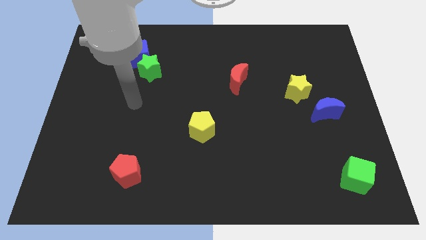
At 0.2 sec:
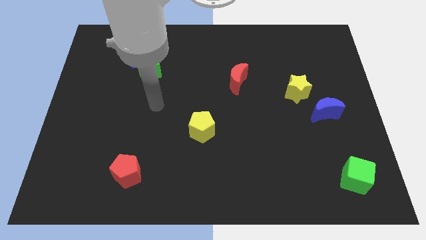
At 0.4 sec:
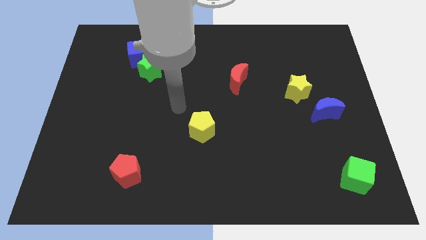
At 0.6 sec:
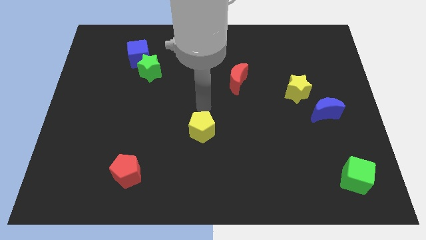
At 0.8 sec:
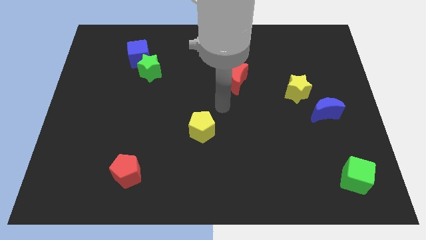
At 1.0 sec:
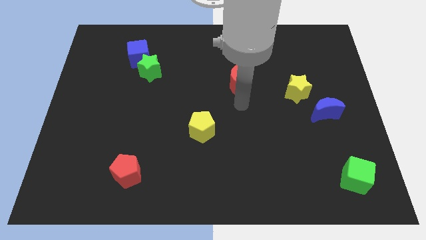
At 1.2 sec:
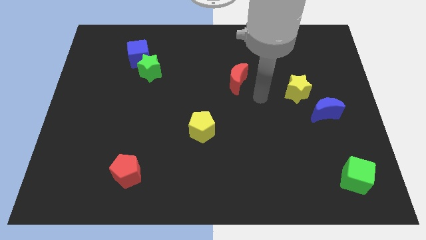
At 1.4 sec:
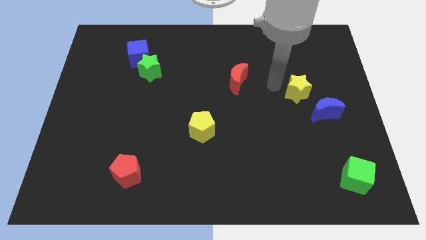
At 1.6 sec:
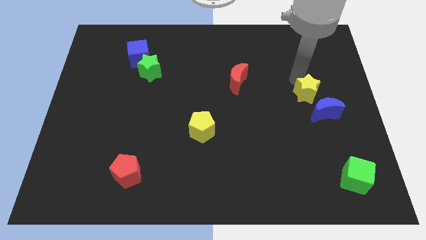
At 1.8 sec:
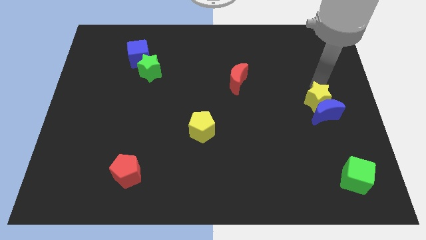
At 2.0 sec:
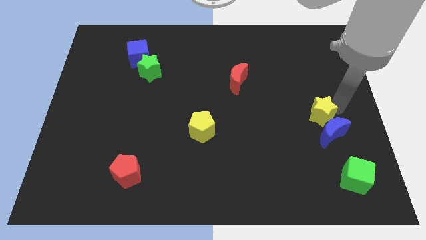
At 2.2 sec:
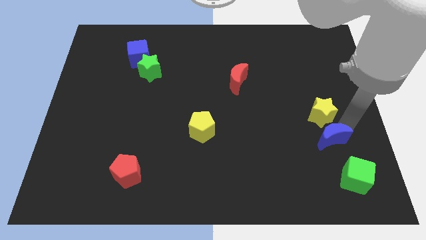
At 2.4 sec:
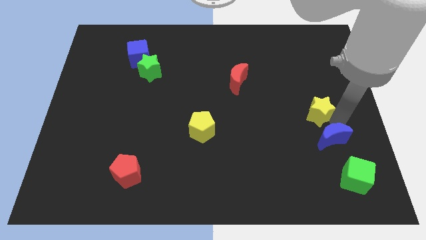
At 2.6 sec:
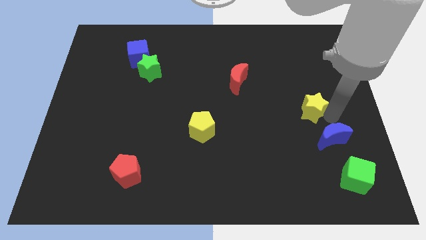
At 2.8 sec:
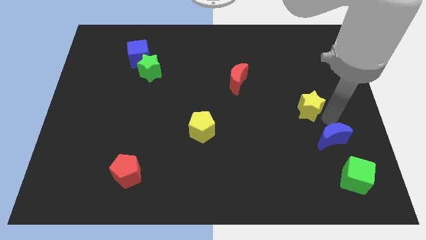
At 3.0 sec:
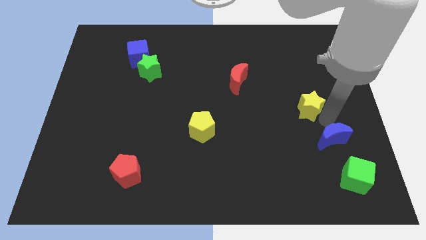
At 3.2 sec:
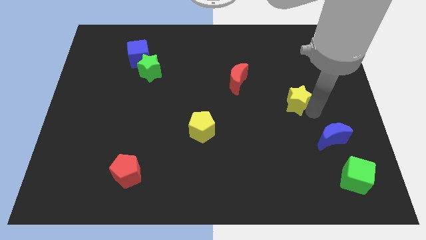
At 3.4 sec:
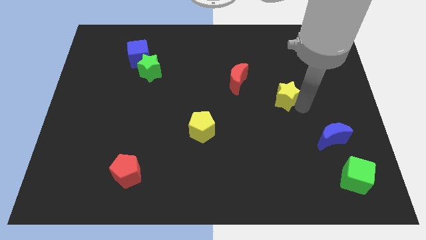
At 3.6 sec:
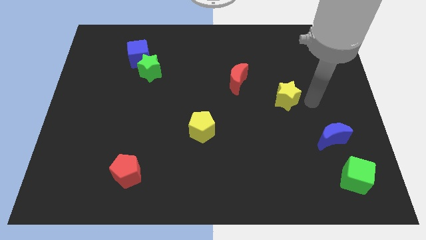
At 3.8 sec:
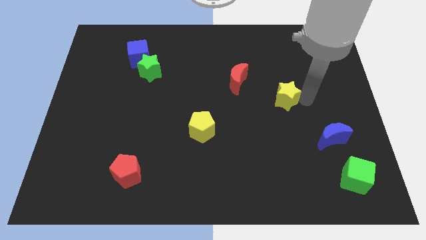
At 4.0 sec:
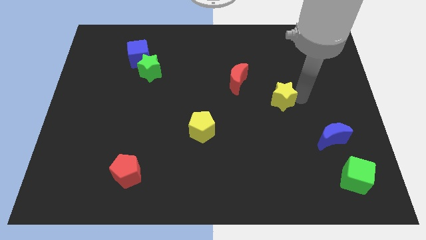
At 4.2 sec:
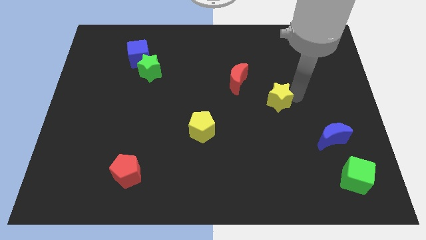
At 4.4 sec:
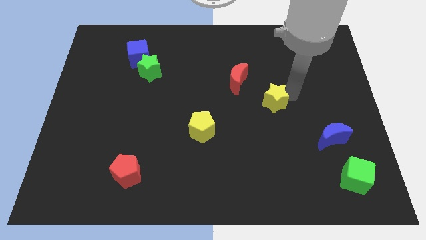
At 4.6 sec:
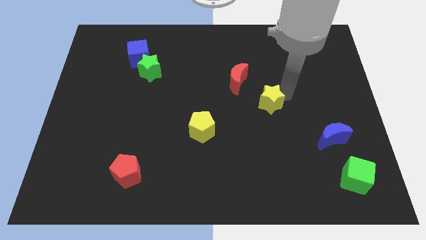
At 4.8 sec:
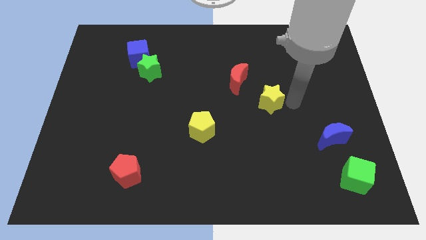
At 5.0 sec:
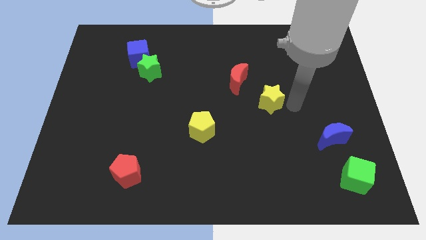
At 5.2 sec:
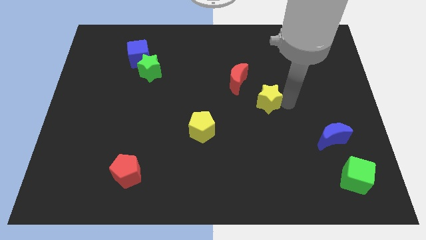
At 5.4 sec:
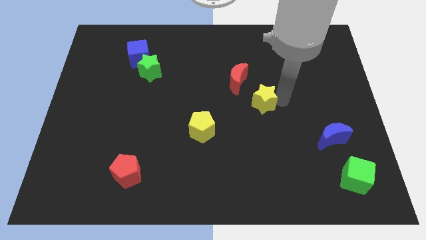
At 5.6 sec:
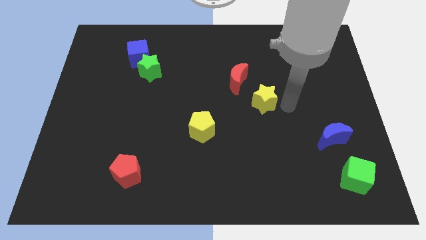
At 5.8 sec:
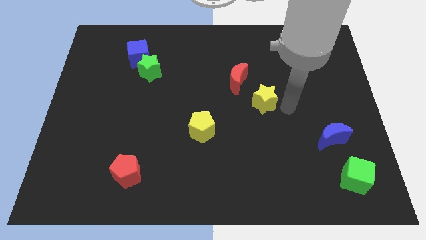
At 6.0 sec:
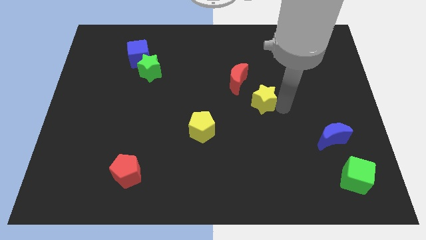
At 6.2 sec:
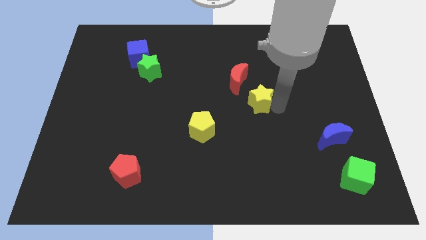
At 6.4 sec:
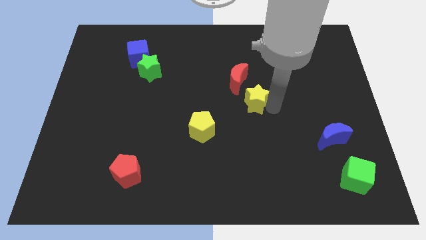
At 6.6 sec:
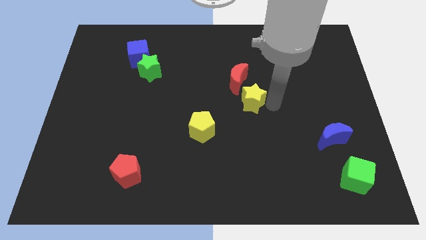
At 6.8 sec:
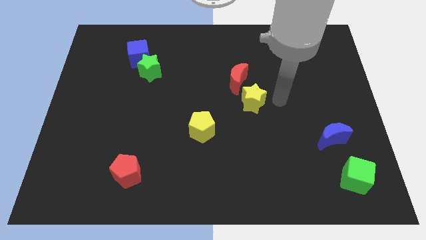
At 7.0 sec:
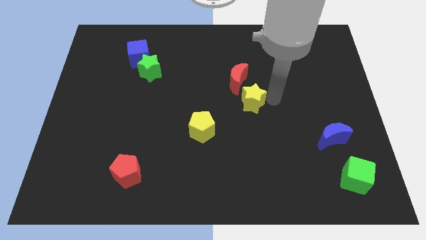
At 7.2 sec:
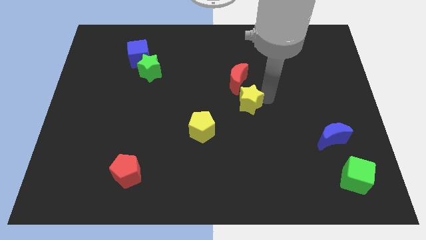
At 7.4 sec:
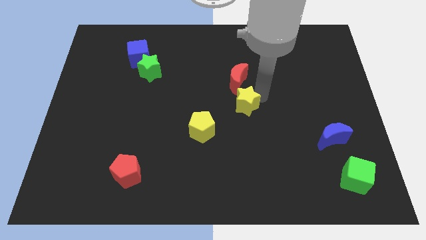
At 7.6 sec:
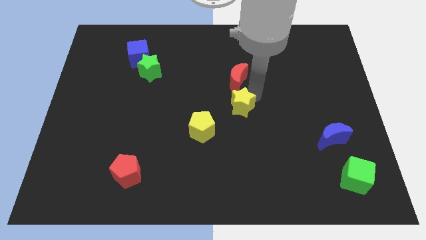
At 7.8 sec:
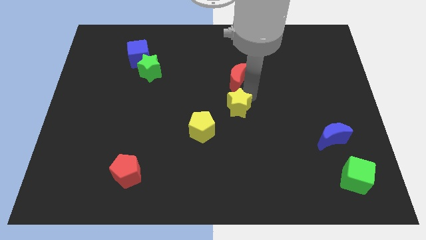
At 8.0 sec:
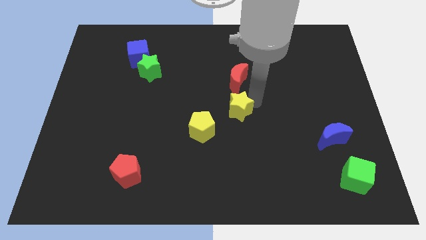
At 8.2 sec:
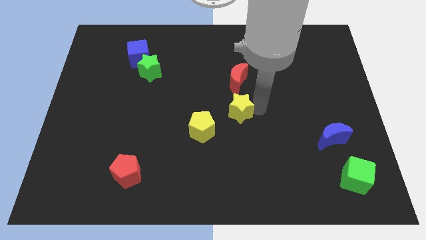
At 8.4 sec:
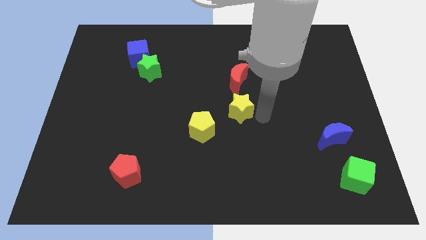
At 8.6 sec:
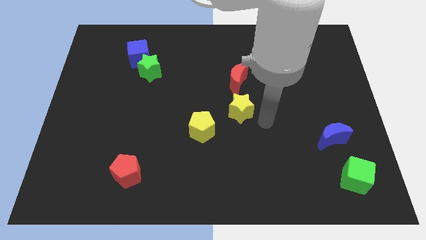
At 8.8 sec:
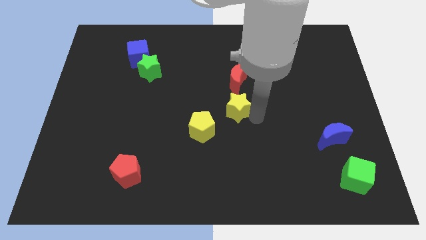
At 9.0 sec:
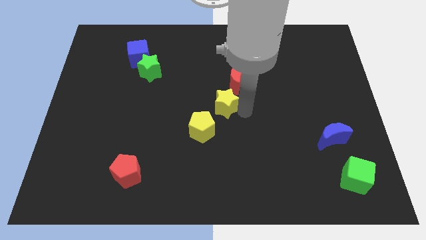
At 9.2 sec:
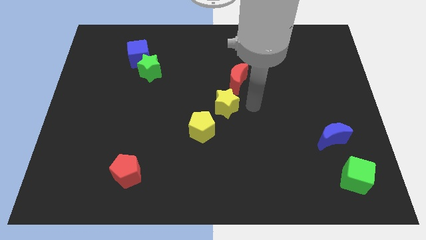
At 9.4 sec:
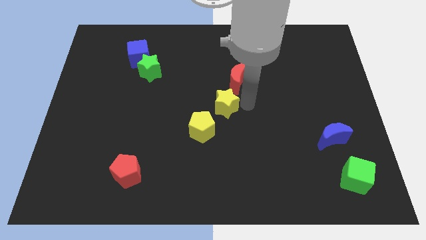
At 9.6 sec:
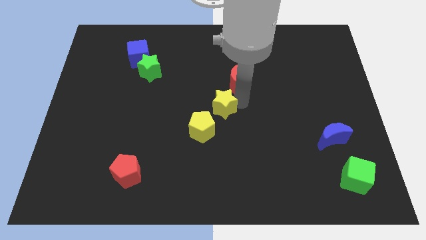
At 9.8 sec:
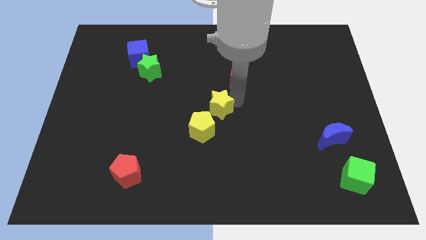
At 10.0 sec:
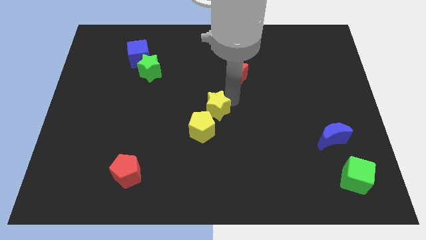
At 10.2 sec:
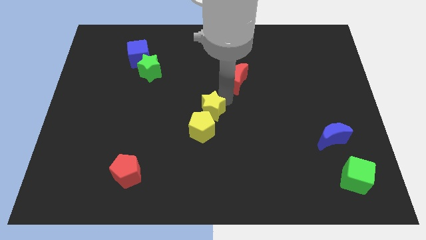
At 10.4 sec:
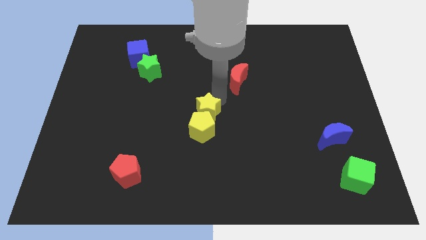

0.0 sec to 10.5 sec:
push the yellow star diagonally up and to the left of the yellow pentagon

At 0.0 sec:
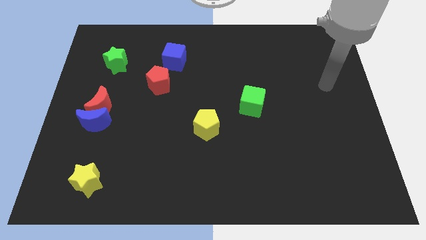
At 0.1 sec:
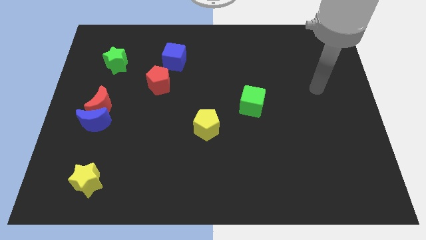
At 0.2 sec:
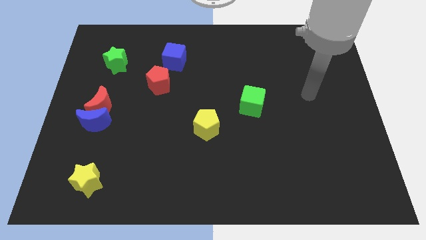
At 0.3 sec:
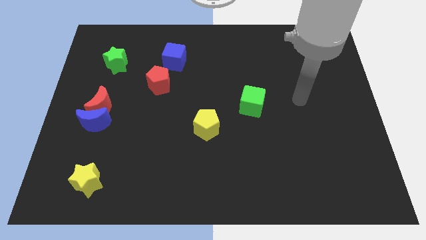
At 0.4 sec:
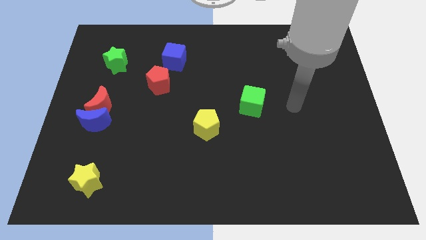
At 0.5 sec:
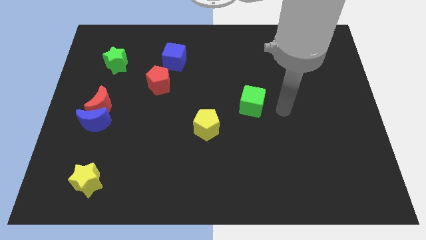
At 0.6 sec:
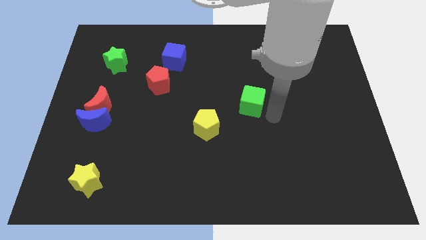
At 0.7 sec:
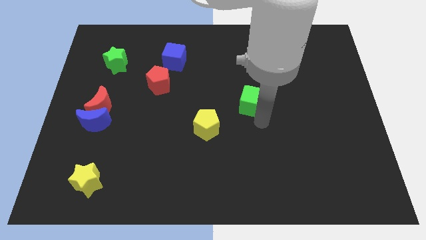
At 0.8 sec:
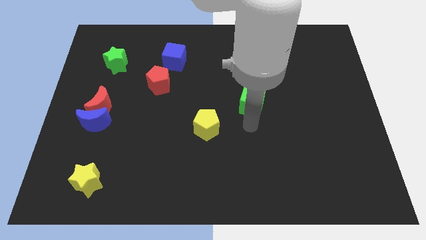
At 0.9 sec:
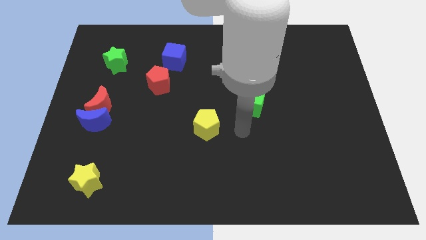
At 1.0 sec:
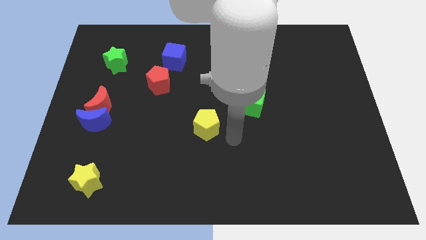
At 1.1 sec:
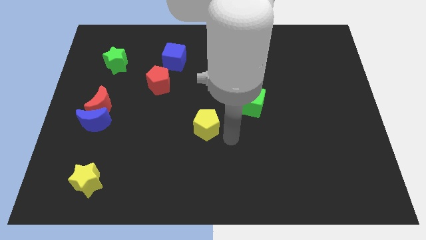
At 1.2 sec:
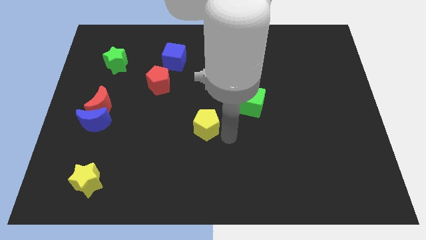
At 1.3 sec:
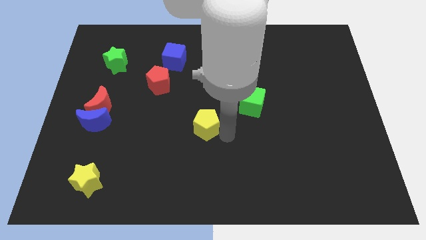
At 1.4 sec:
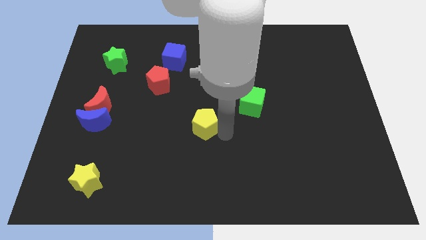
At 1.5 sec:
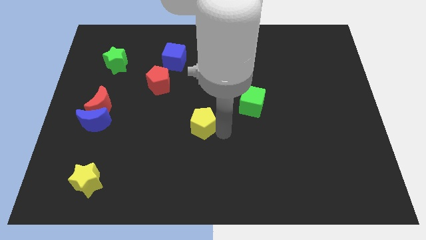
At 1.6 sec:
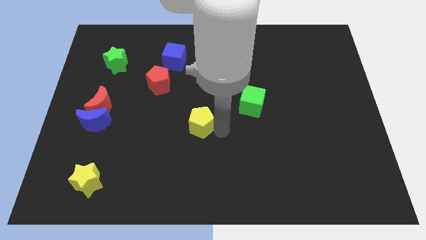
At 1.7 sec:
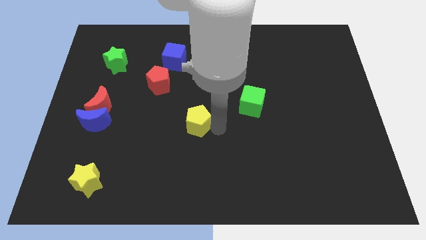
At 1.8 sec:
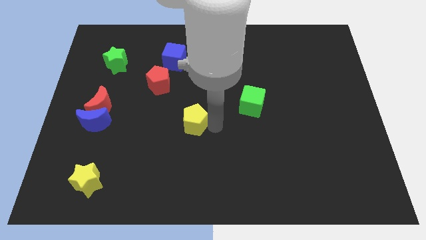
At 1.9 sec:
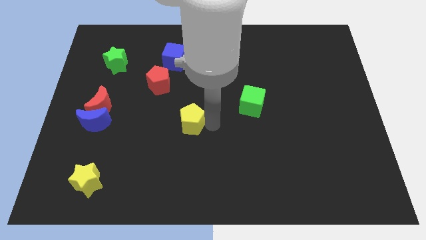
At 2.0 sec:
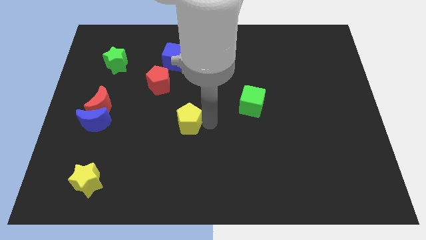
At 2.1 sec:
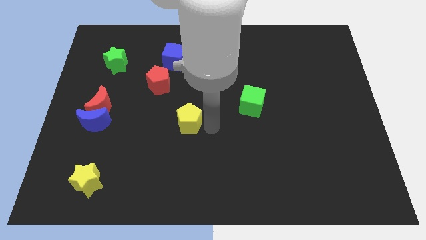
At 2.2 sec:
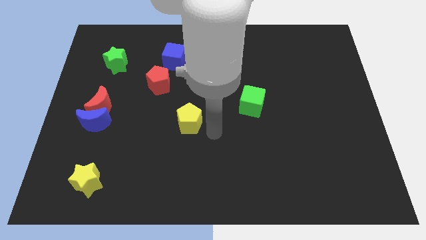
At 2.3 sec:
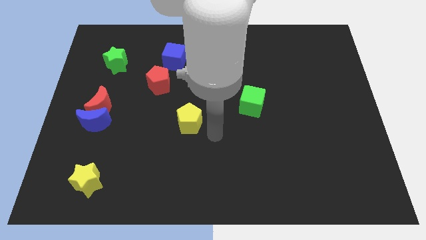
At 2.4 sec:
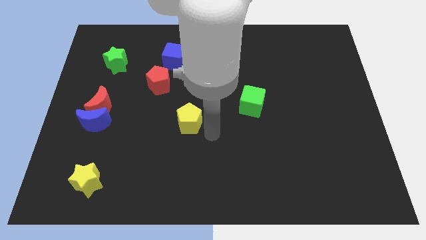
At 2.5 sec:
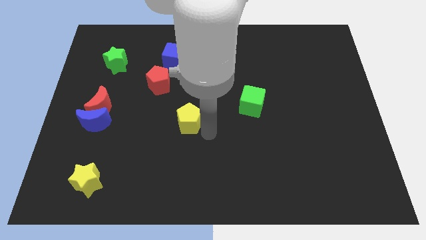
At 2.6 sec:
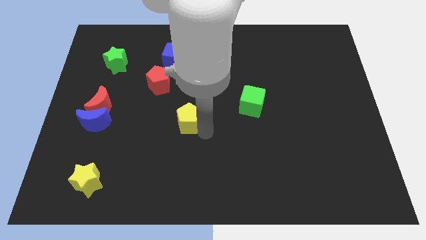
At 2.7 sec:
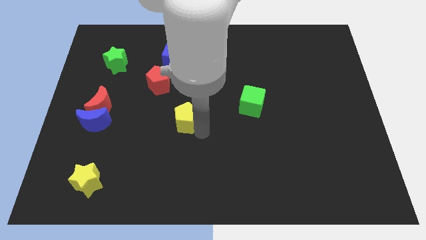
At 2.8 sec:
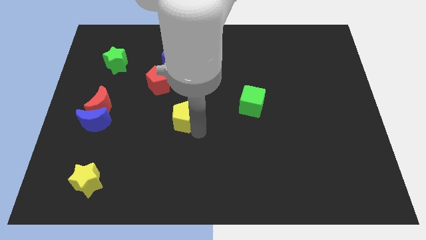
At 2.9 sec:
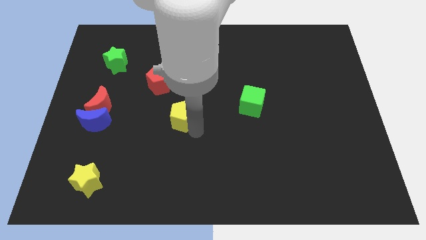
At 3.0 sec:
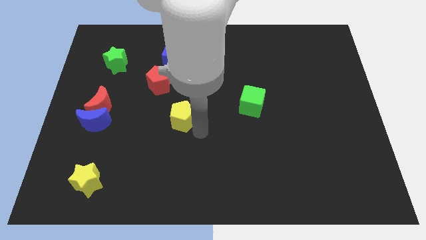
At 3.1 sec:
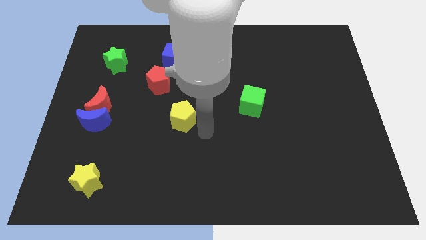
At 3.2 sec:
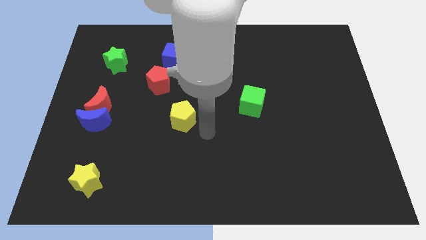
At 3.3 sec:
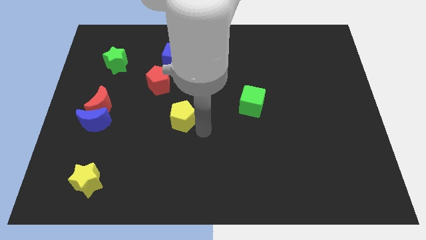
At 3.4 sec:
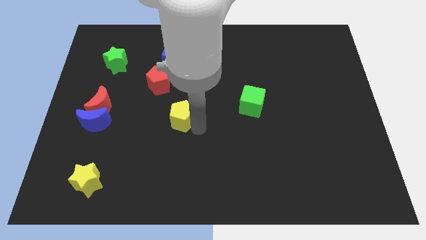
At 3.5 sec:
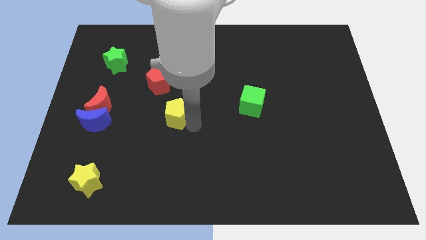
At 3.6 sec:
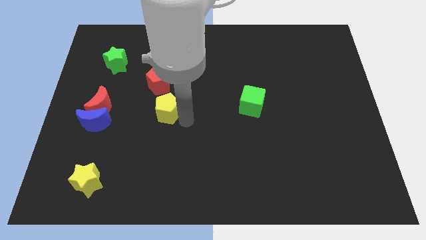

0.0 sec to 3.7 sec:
slide the yellow pentagon just right of the red moon
